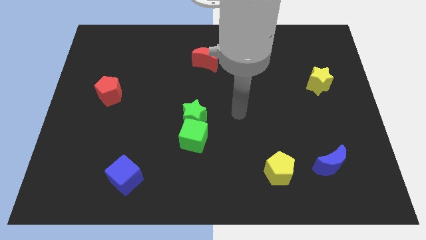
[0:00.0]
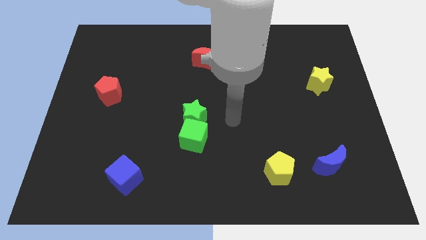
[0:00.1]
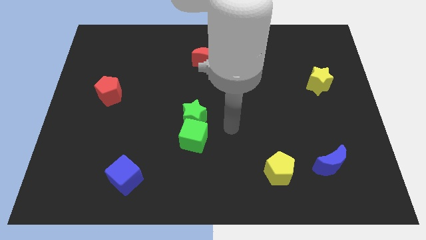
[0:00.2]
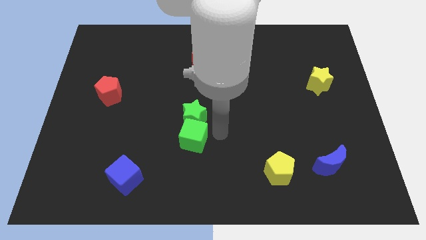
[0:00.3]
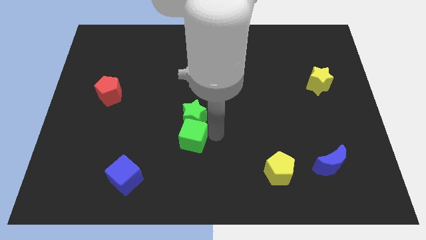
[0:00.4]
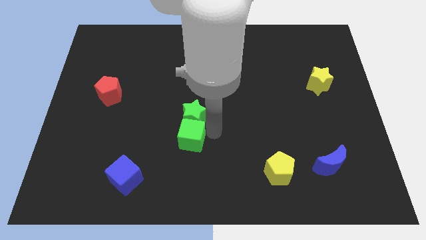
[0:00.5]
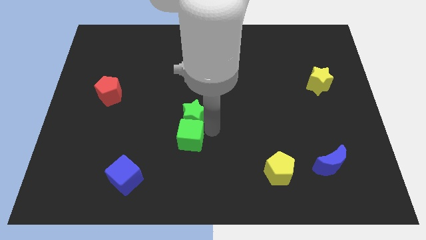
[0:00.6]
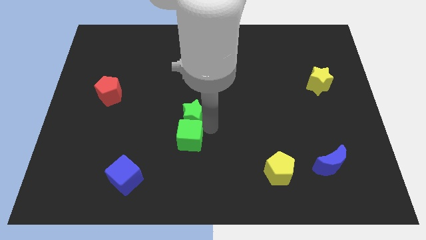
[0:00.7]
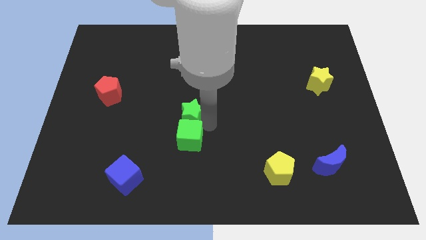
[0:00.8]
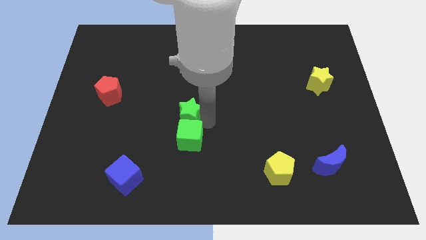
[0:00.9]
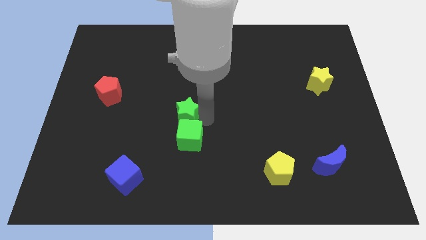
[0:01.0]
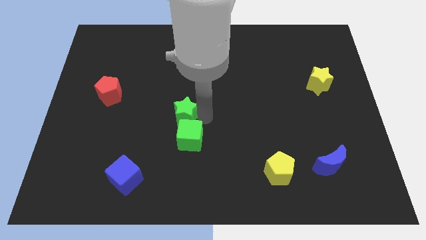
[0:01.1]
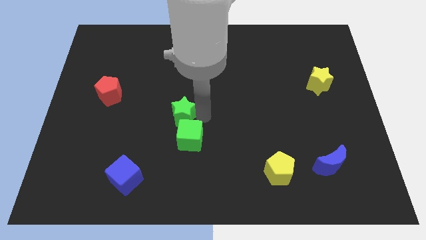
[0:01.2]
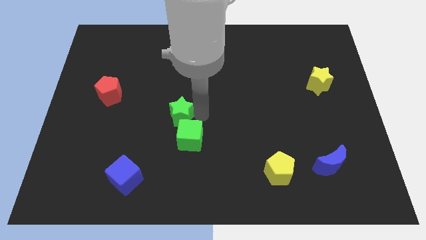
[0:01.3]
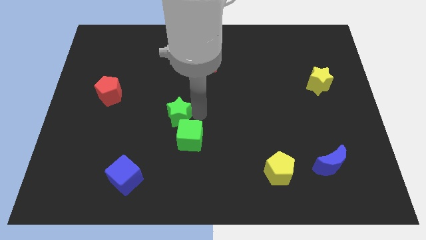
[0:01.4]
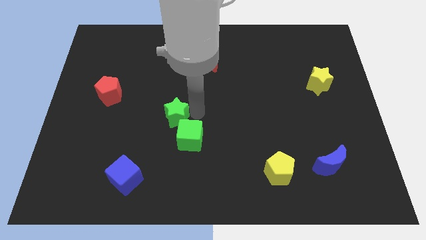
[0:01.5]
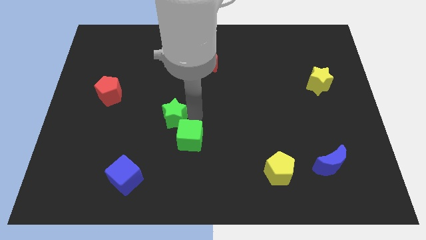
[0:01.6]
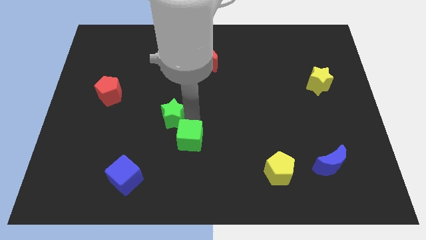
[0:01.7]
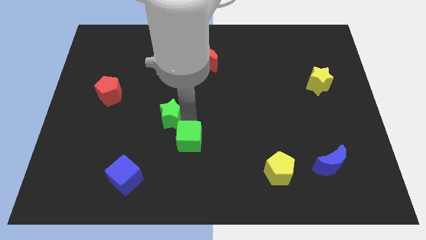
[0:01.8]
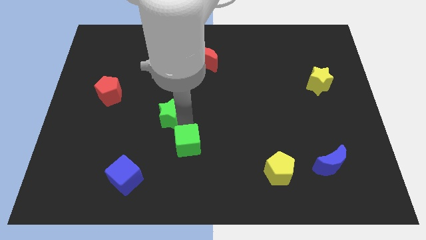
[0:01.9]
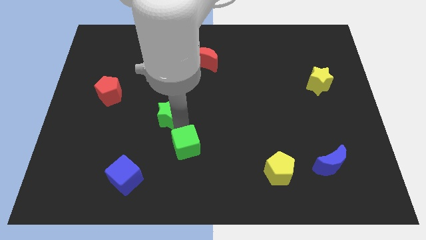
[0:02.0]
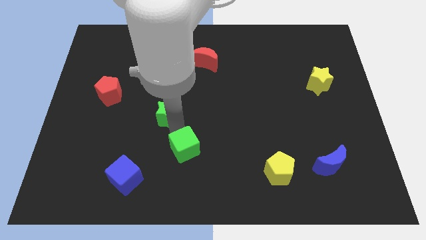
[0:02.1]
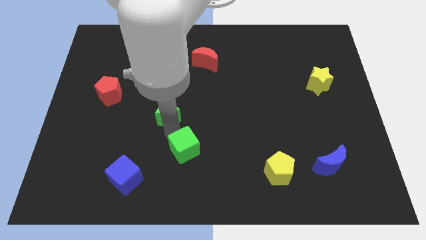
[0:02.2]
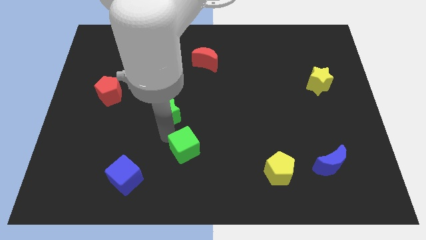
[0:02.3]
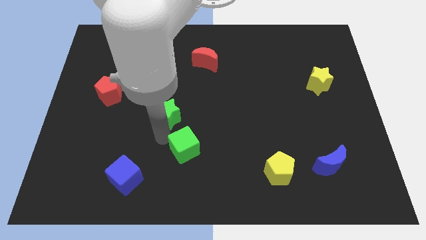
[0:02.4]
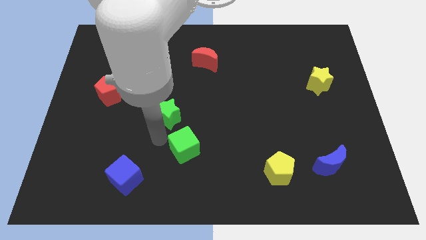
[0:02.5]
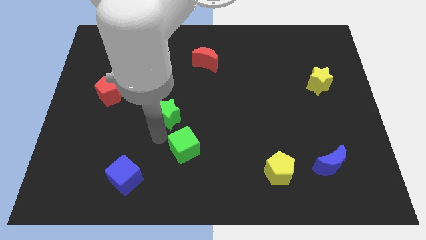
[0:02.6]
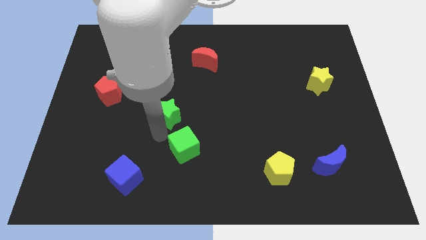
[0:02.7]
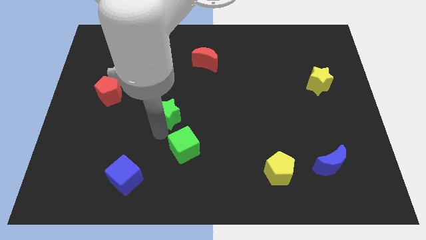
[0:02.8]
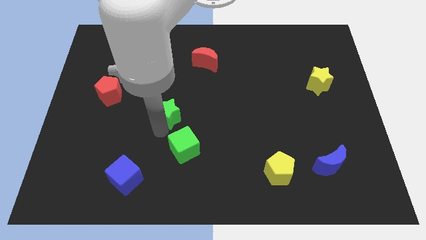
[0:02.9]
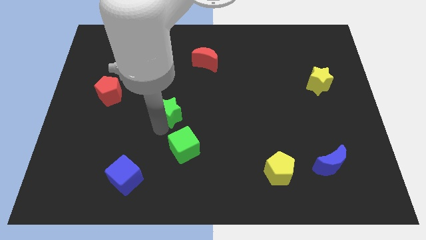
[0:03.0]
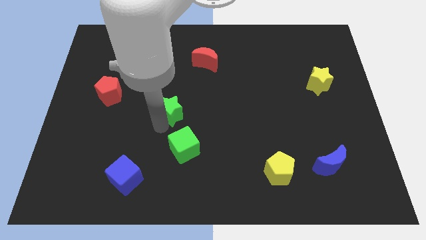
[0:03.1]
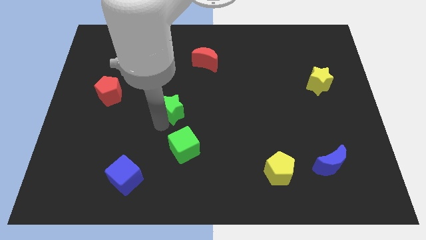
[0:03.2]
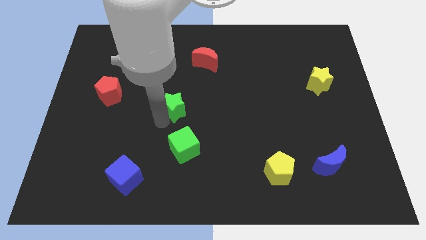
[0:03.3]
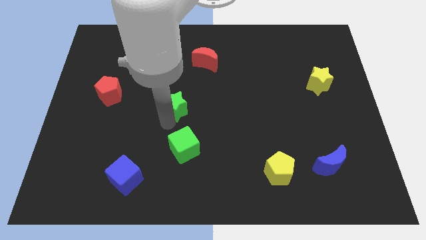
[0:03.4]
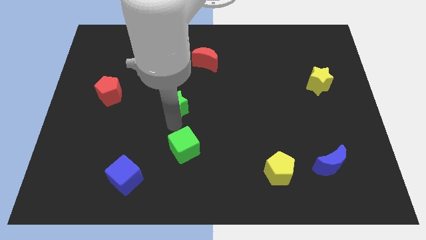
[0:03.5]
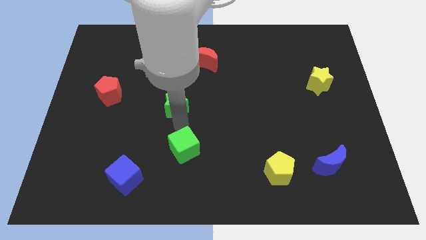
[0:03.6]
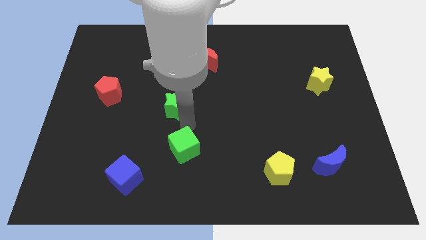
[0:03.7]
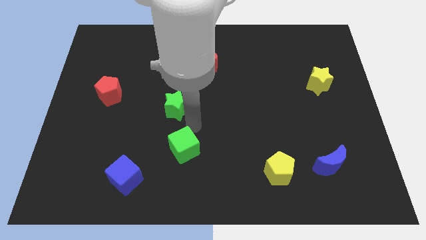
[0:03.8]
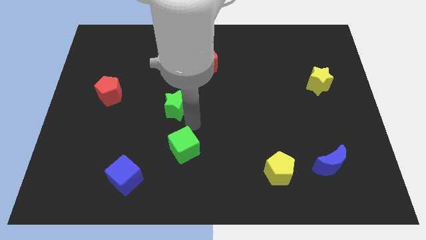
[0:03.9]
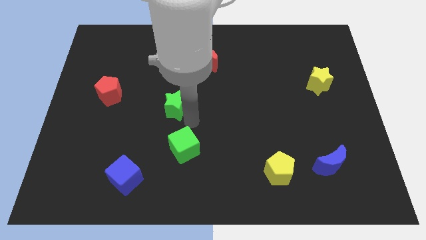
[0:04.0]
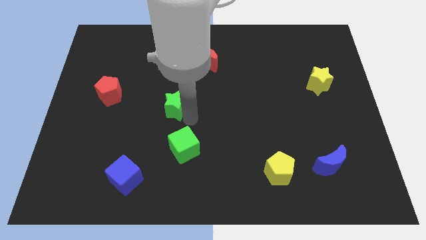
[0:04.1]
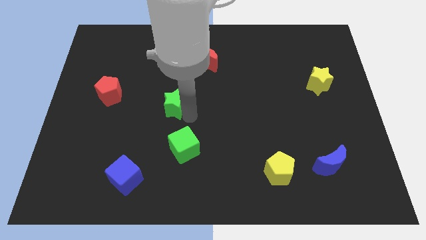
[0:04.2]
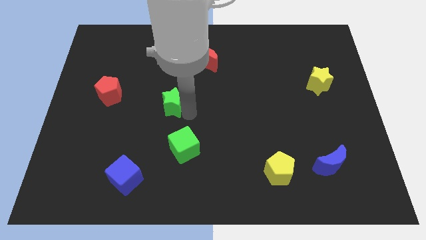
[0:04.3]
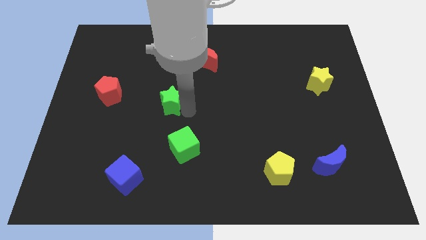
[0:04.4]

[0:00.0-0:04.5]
slide the green star upwards and then to the left slightly

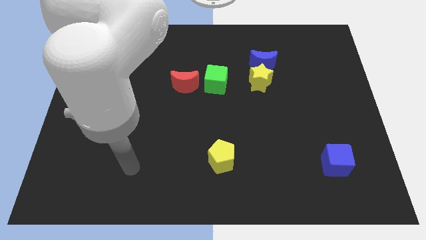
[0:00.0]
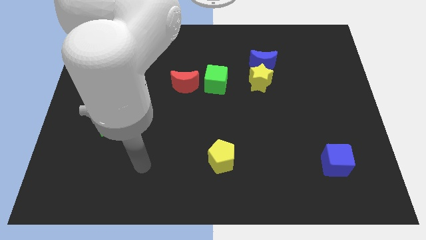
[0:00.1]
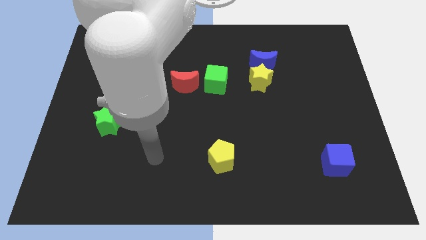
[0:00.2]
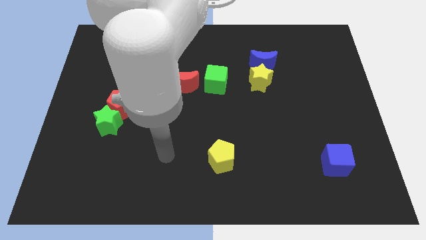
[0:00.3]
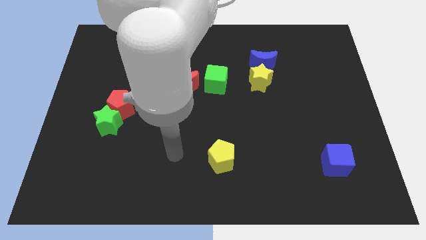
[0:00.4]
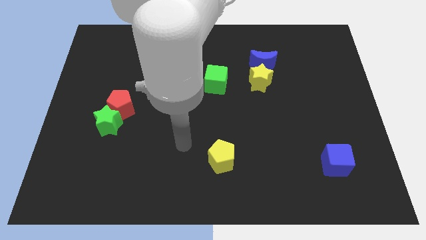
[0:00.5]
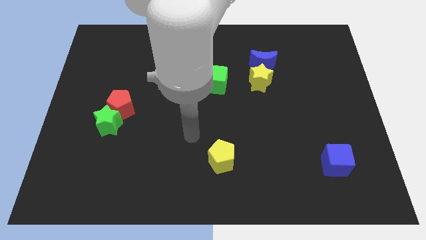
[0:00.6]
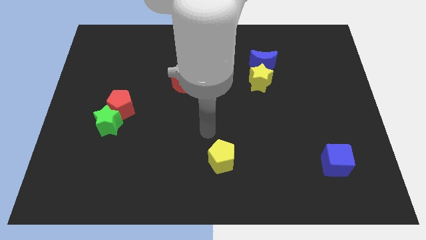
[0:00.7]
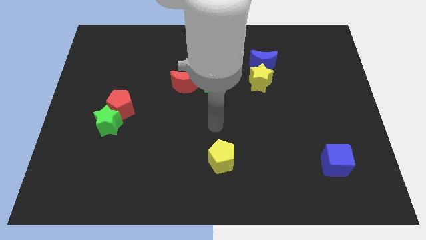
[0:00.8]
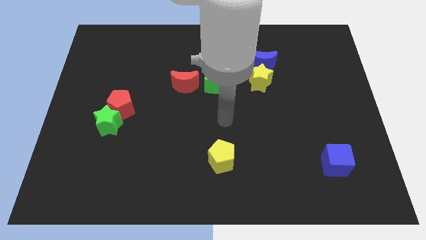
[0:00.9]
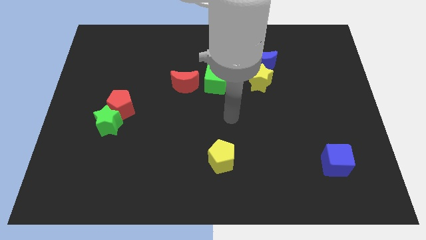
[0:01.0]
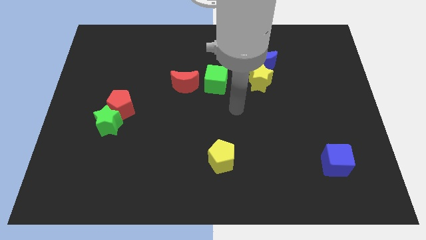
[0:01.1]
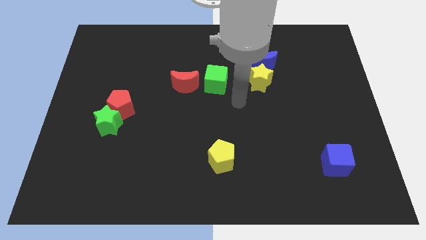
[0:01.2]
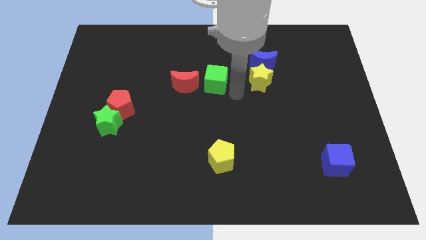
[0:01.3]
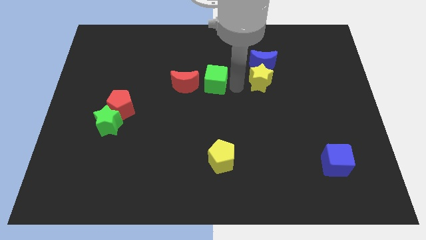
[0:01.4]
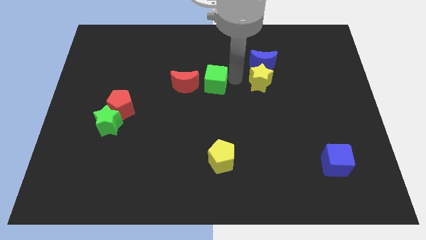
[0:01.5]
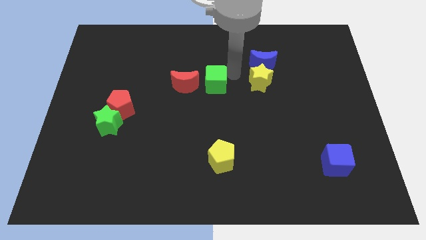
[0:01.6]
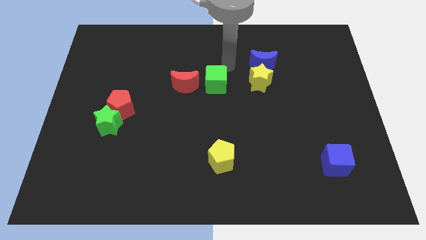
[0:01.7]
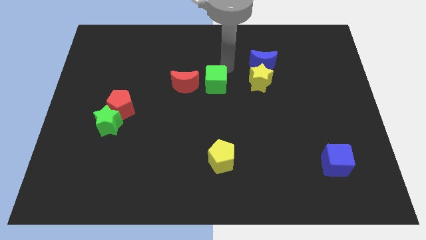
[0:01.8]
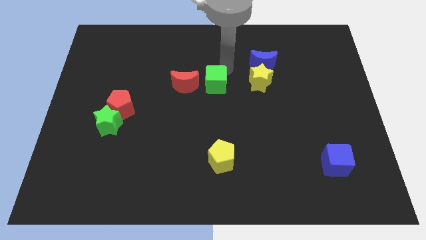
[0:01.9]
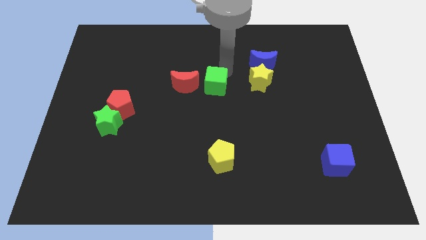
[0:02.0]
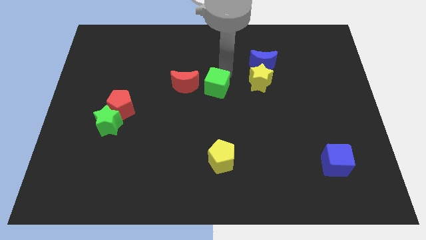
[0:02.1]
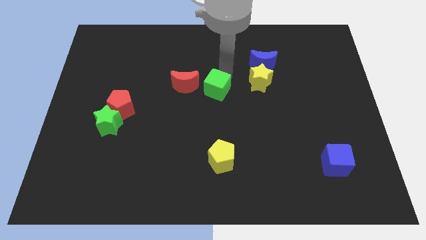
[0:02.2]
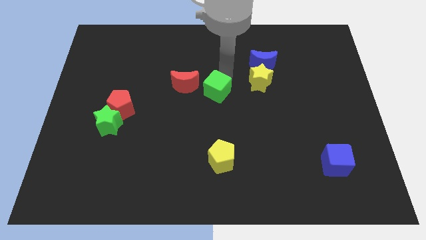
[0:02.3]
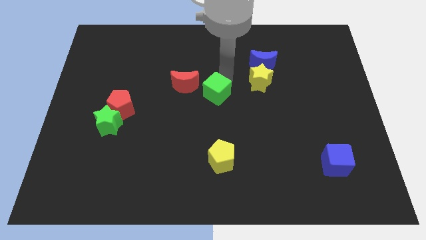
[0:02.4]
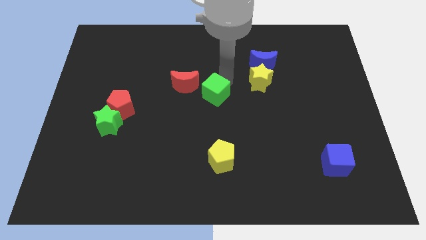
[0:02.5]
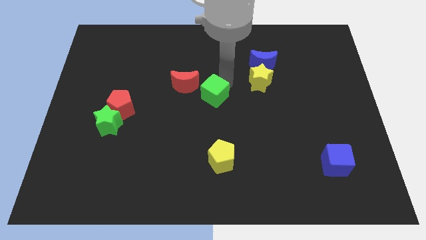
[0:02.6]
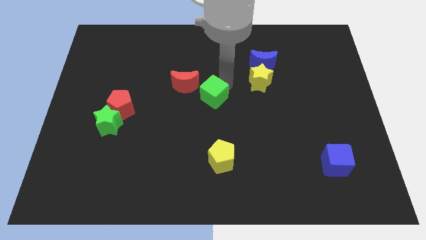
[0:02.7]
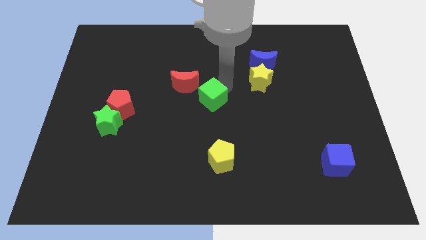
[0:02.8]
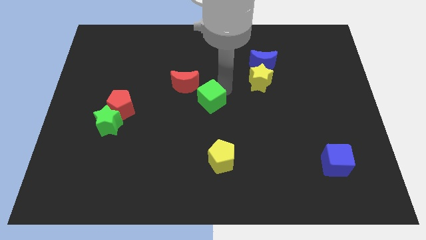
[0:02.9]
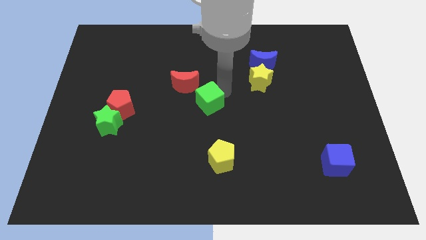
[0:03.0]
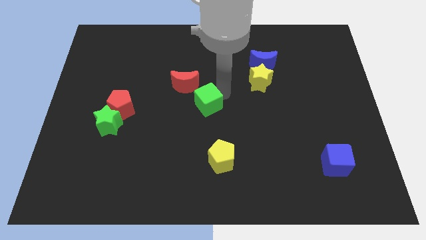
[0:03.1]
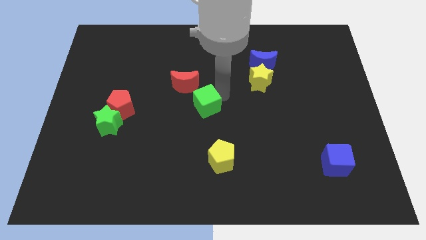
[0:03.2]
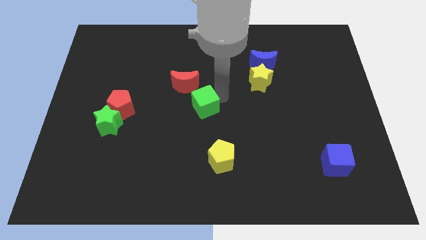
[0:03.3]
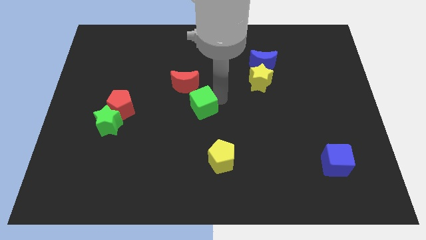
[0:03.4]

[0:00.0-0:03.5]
slightly slide the green cube down and left diagonally
